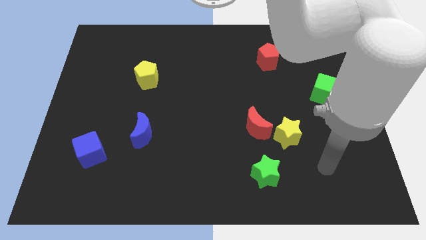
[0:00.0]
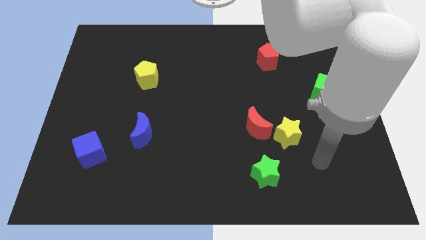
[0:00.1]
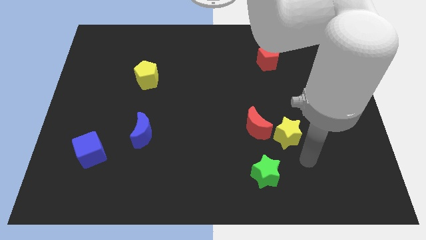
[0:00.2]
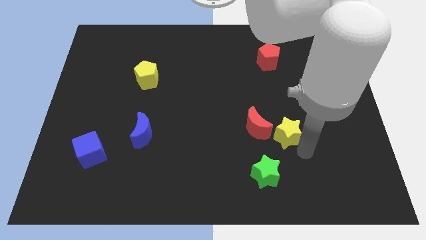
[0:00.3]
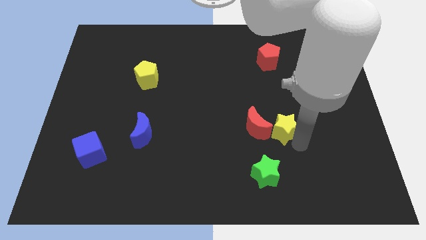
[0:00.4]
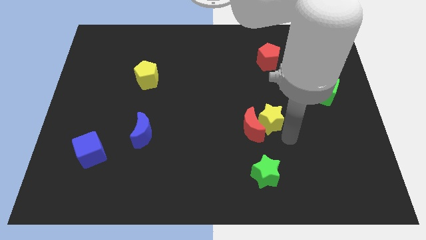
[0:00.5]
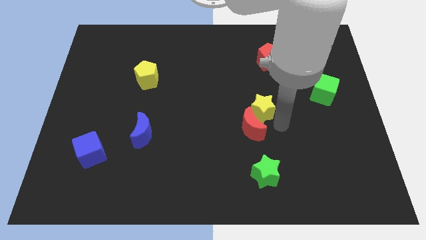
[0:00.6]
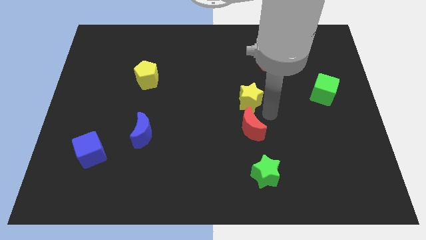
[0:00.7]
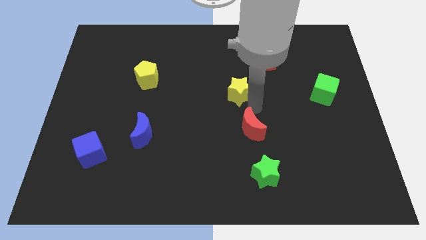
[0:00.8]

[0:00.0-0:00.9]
separate the red moon from the yellow star

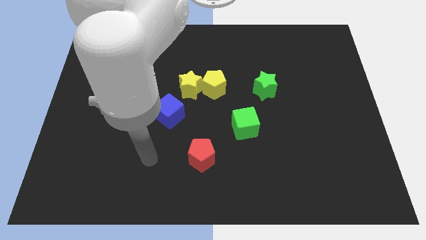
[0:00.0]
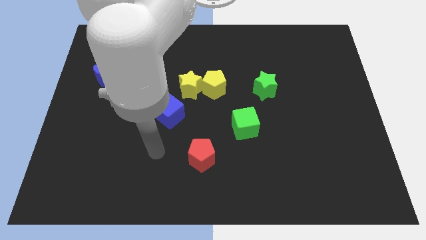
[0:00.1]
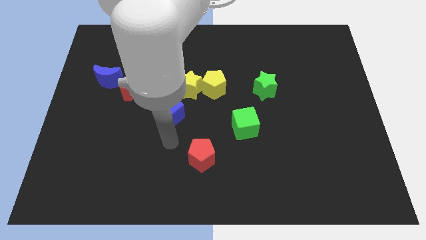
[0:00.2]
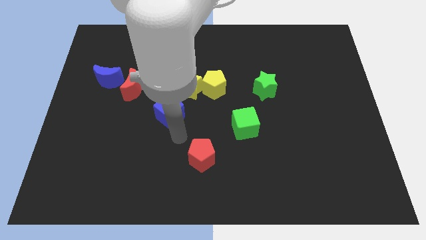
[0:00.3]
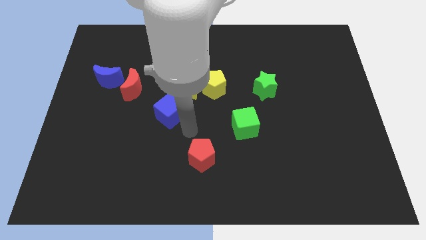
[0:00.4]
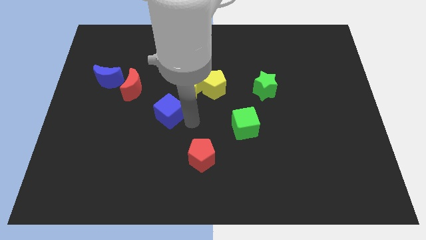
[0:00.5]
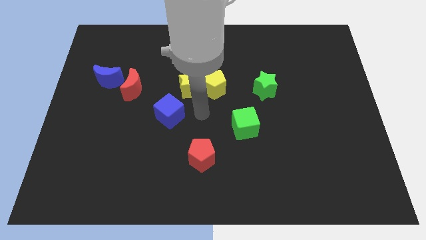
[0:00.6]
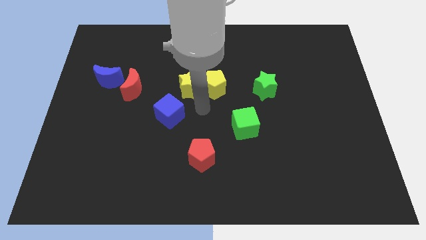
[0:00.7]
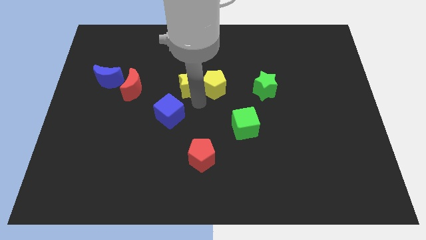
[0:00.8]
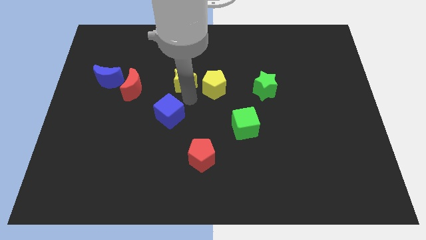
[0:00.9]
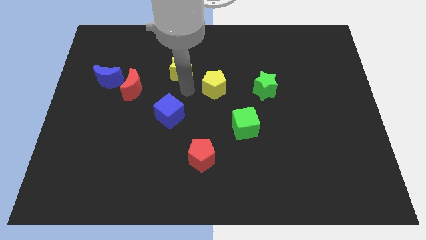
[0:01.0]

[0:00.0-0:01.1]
move the yellow pentagon away from the yellow star

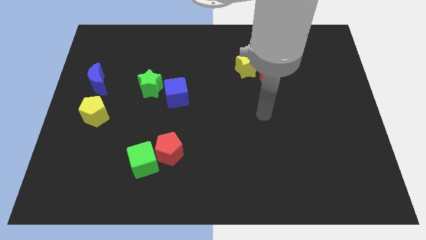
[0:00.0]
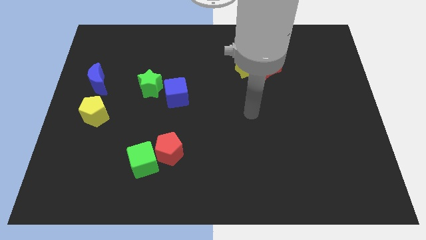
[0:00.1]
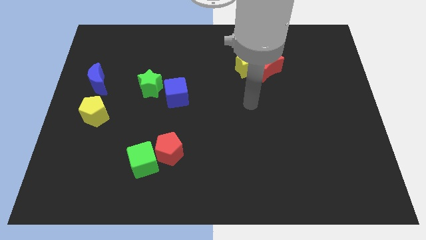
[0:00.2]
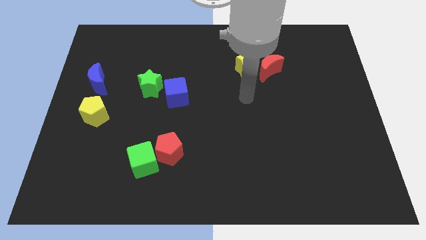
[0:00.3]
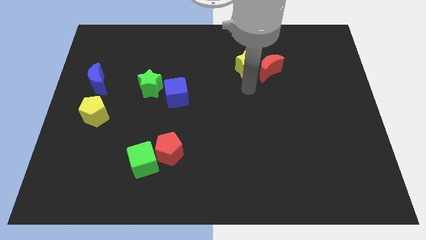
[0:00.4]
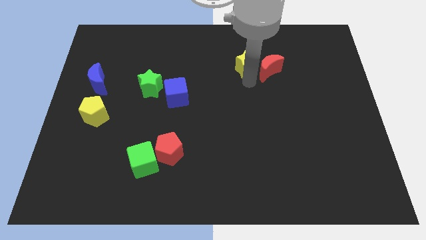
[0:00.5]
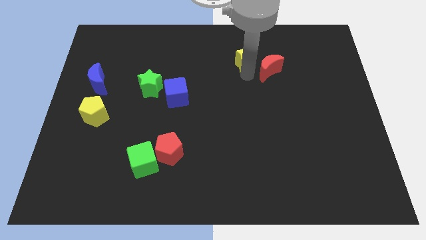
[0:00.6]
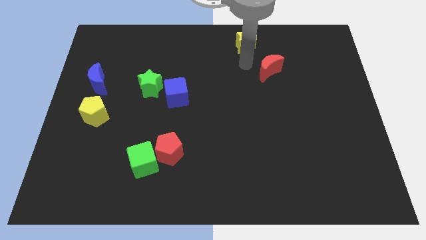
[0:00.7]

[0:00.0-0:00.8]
move the red moon away from the yellow star

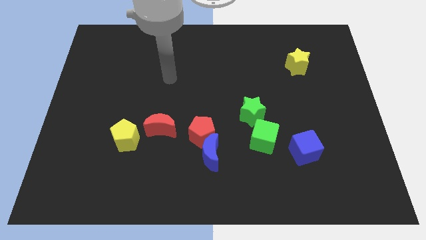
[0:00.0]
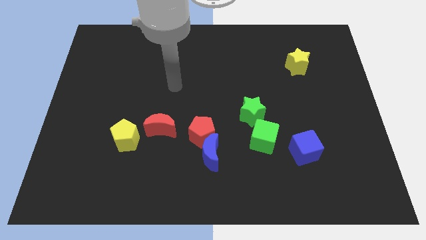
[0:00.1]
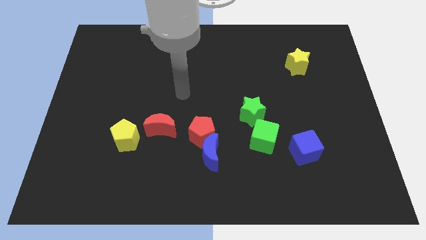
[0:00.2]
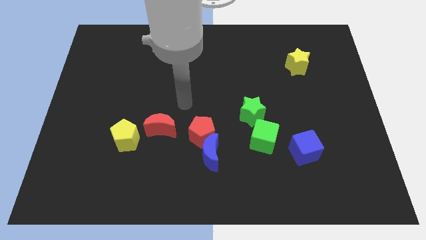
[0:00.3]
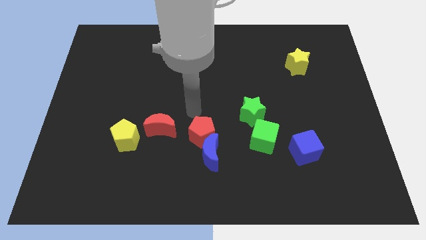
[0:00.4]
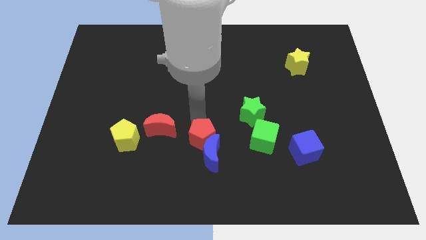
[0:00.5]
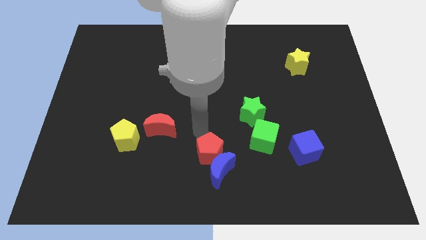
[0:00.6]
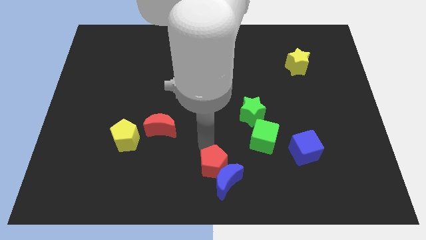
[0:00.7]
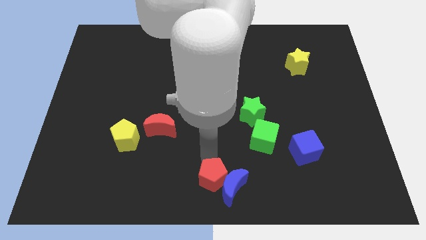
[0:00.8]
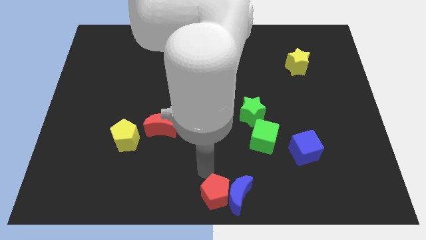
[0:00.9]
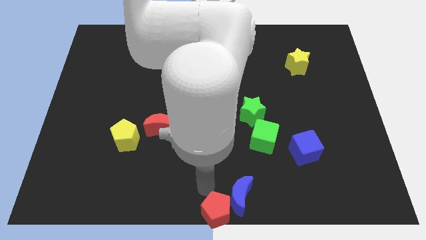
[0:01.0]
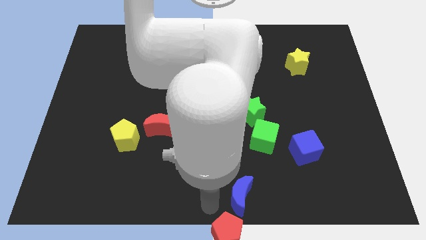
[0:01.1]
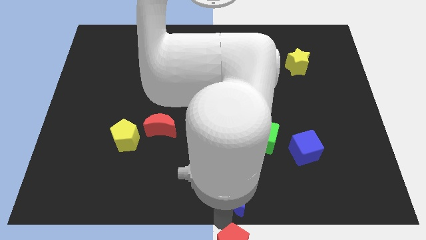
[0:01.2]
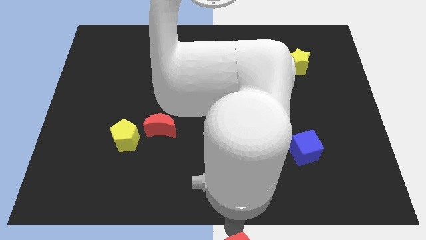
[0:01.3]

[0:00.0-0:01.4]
separate the blue moon from the red pentagon

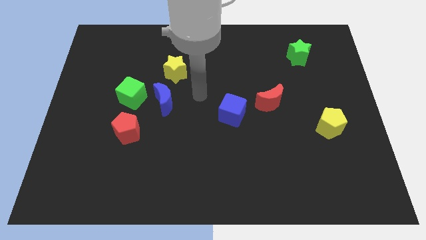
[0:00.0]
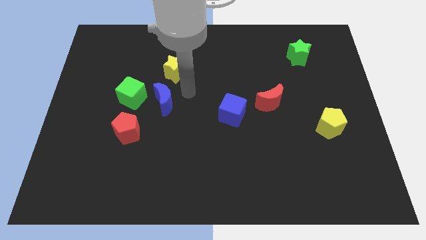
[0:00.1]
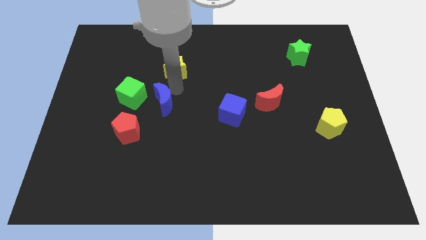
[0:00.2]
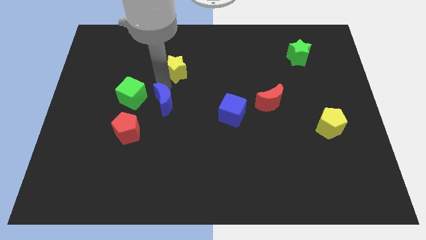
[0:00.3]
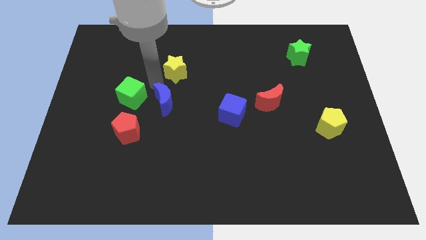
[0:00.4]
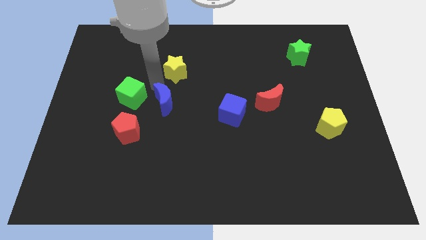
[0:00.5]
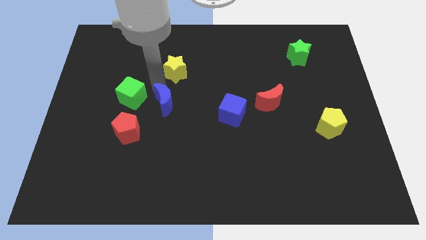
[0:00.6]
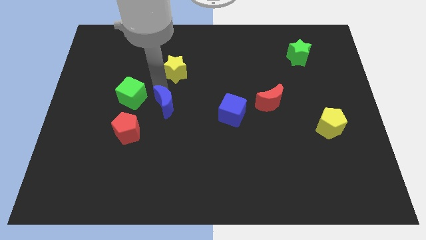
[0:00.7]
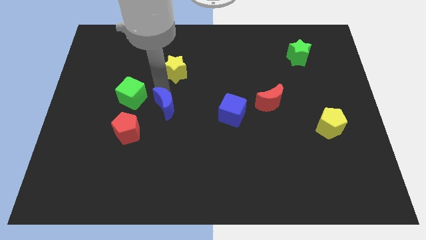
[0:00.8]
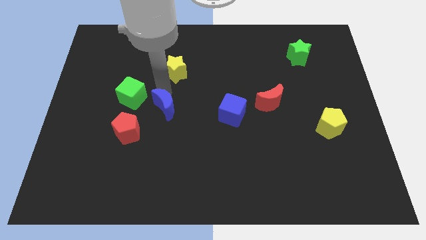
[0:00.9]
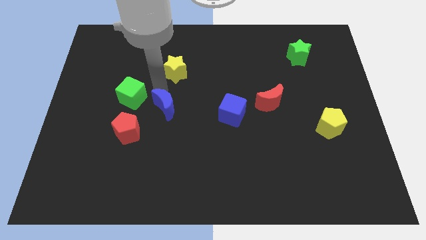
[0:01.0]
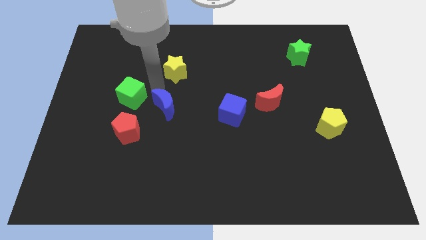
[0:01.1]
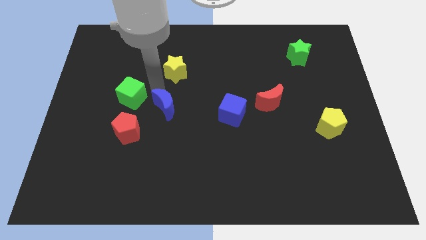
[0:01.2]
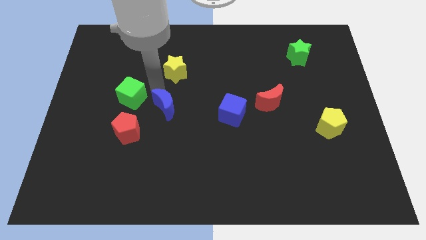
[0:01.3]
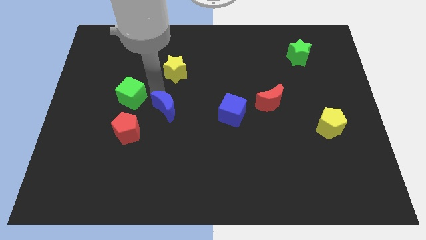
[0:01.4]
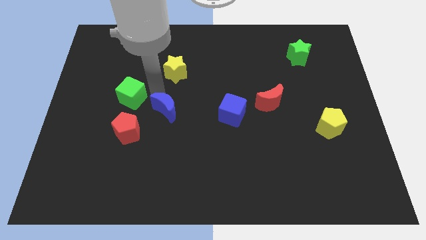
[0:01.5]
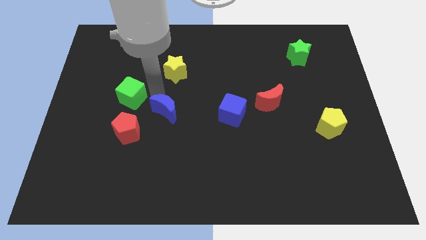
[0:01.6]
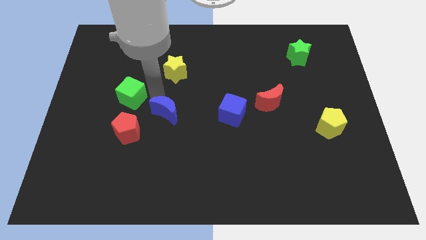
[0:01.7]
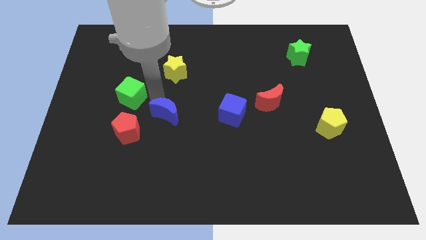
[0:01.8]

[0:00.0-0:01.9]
move the blue moon away from the green cube and yellow star

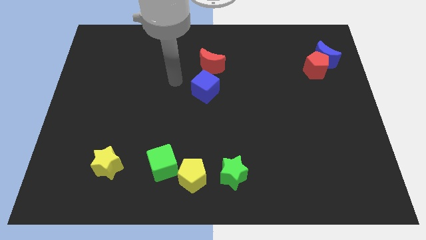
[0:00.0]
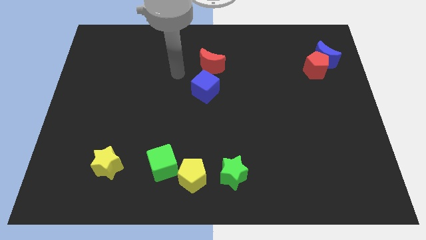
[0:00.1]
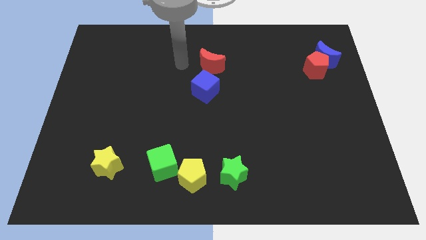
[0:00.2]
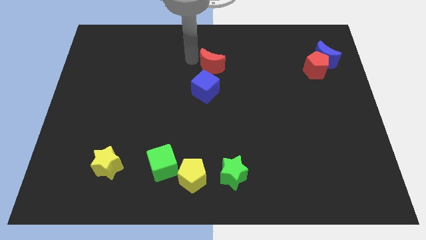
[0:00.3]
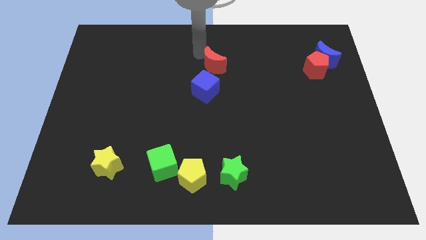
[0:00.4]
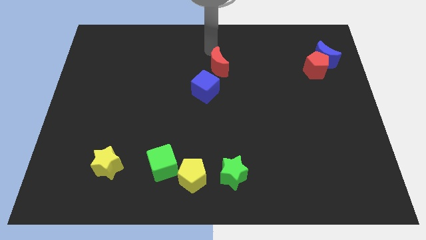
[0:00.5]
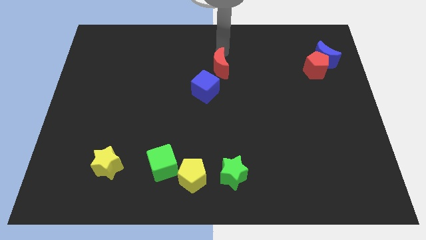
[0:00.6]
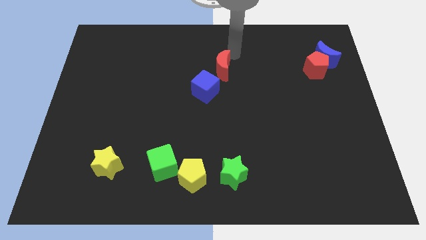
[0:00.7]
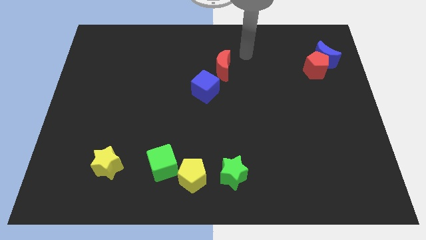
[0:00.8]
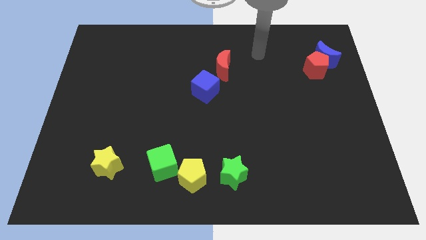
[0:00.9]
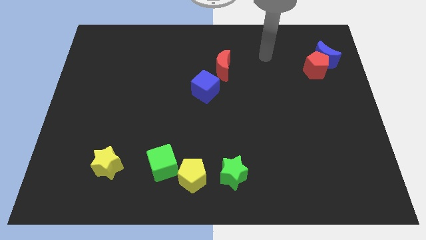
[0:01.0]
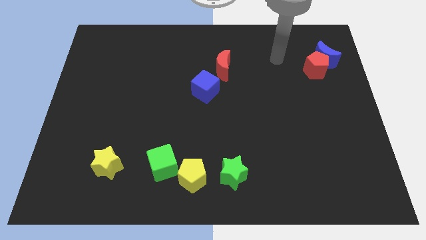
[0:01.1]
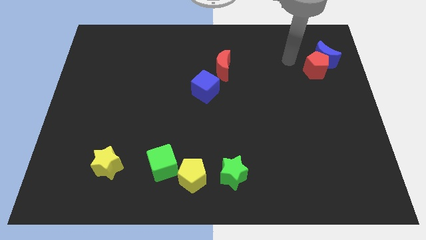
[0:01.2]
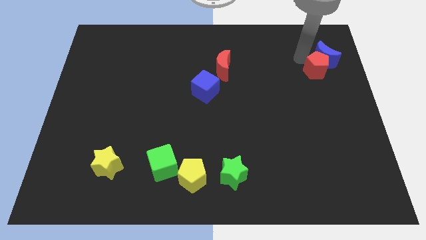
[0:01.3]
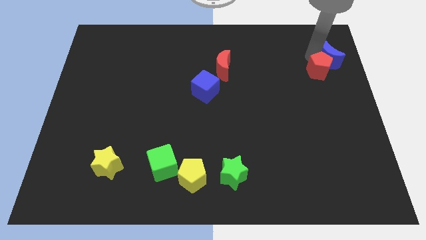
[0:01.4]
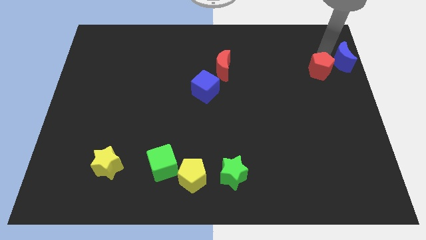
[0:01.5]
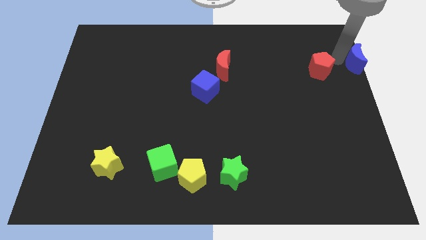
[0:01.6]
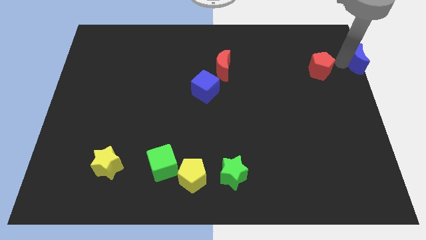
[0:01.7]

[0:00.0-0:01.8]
pull the red pentagon apart from the blue moon

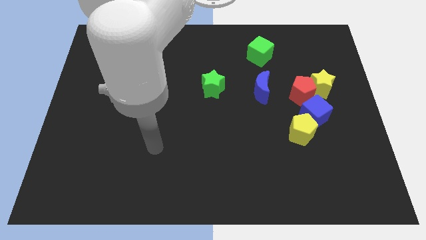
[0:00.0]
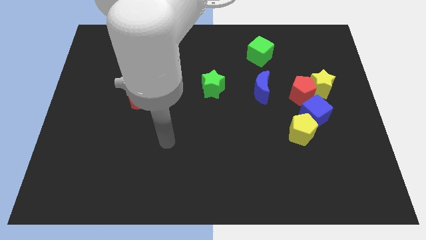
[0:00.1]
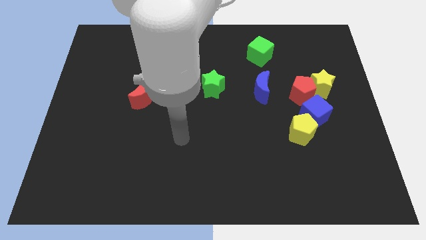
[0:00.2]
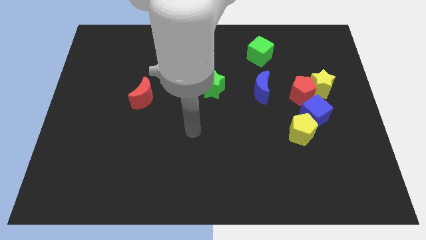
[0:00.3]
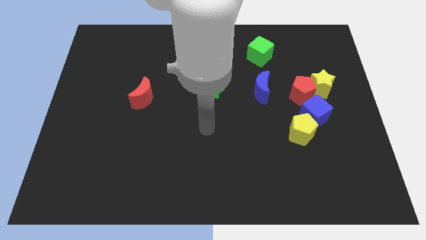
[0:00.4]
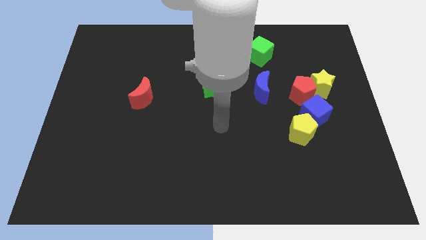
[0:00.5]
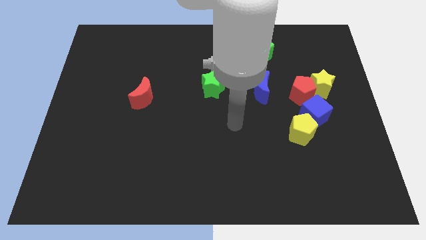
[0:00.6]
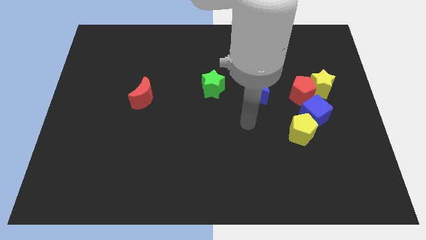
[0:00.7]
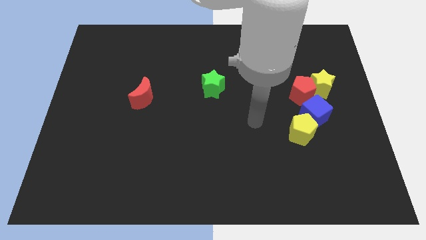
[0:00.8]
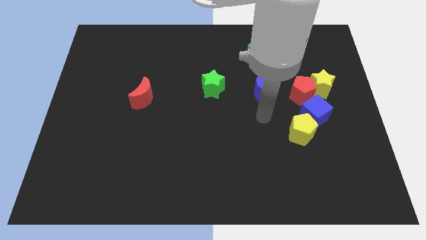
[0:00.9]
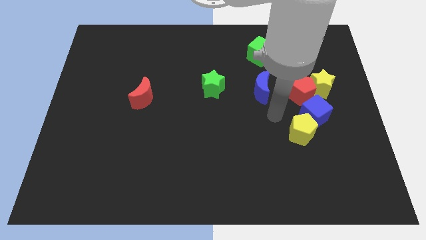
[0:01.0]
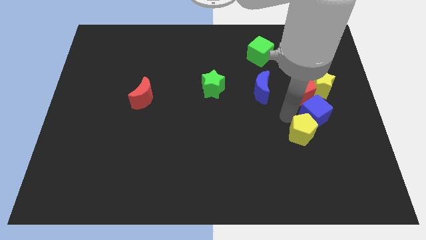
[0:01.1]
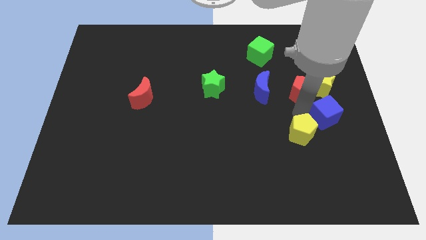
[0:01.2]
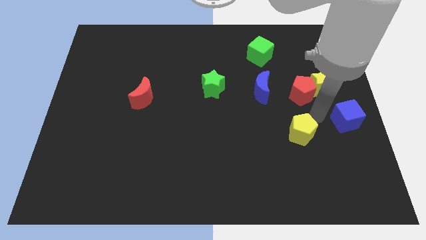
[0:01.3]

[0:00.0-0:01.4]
pull the yellow pentagon apart from the blue cube
